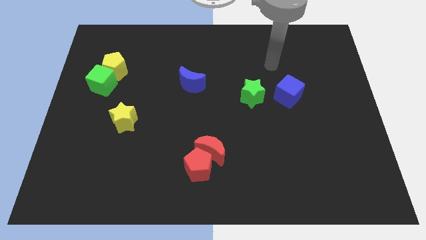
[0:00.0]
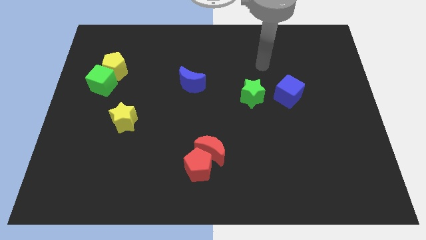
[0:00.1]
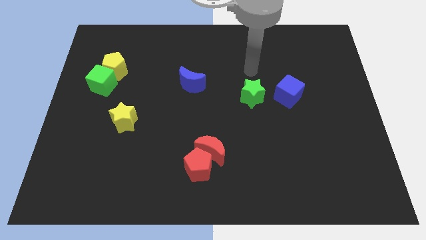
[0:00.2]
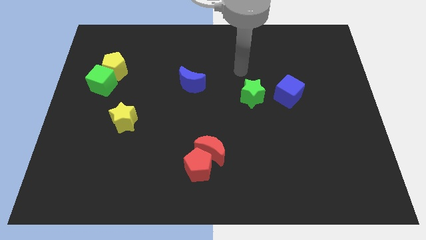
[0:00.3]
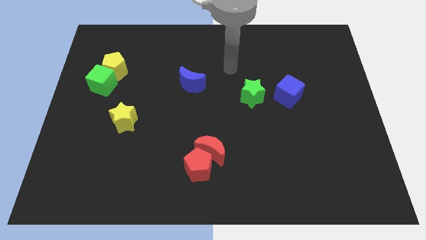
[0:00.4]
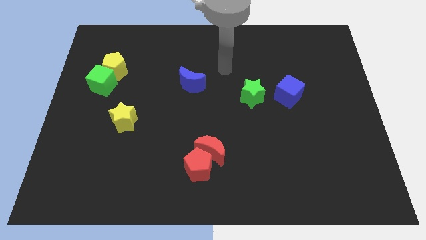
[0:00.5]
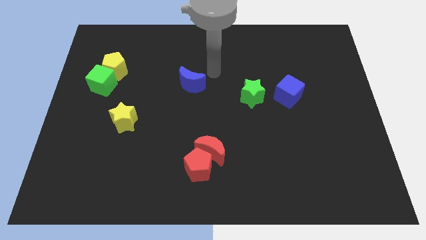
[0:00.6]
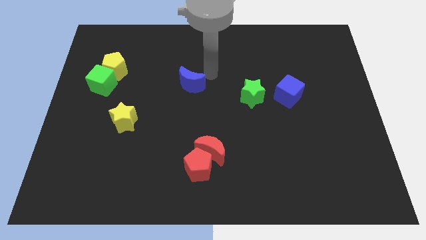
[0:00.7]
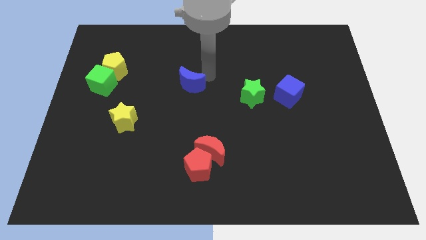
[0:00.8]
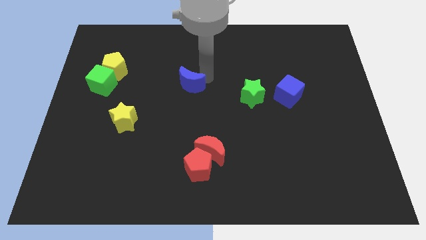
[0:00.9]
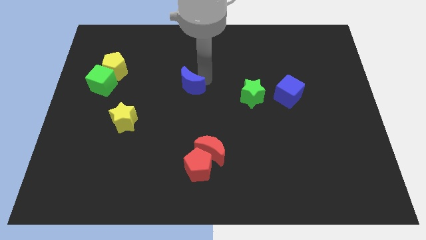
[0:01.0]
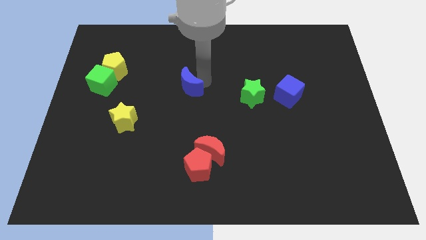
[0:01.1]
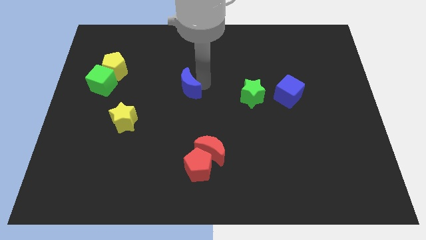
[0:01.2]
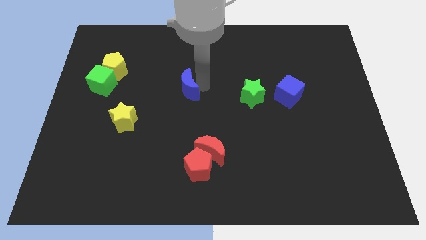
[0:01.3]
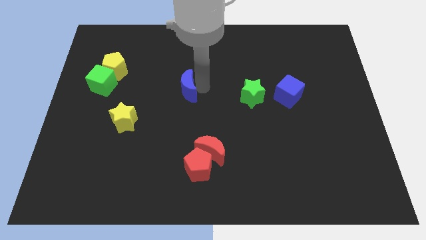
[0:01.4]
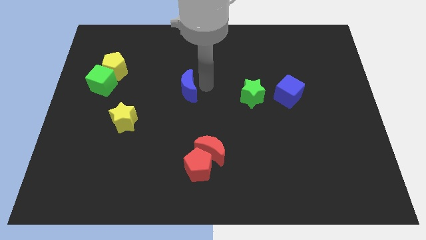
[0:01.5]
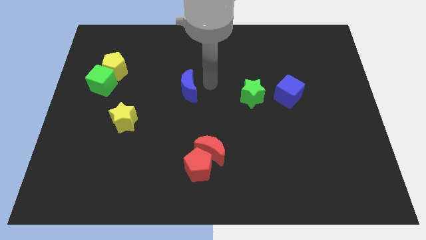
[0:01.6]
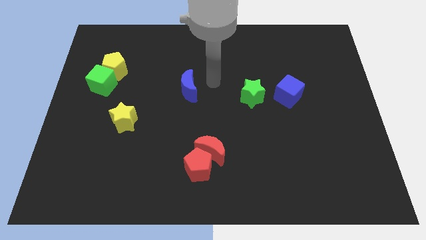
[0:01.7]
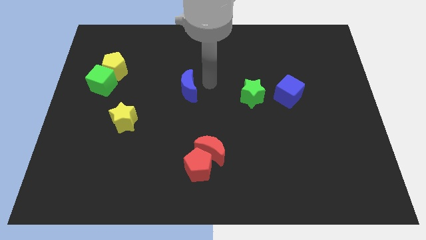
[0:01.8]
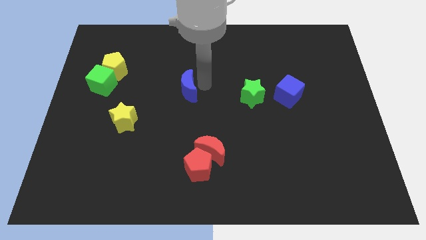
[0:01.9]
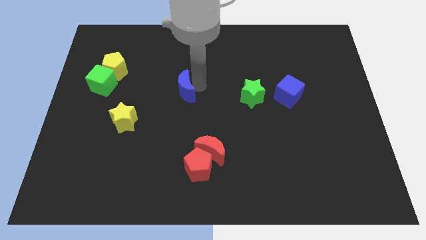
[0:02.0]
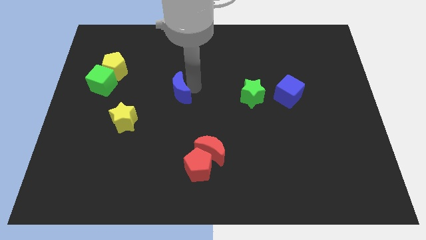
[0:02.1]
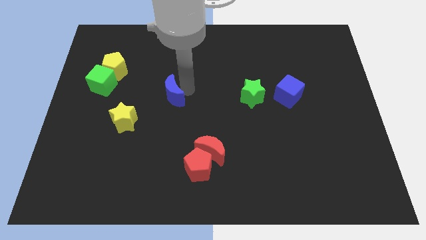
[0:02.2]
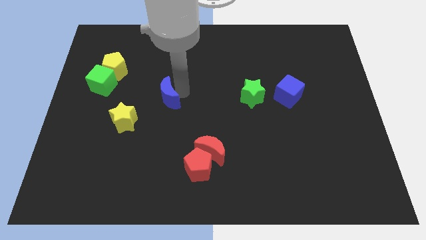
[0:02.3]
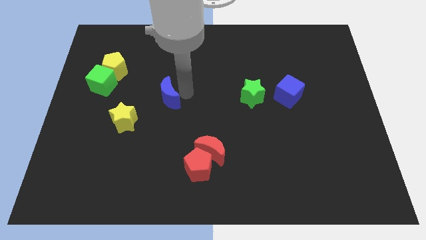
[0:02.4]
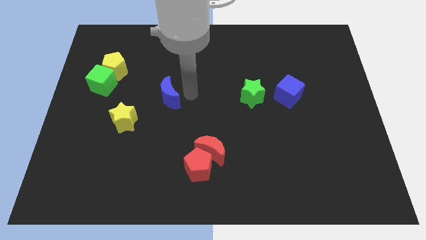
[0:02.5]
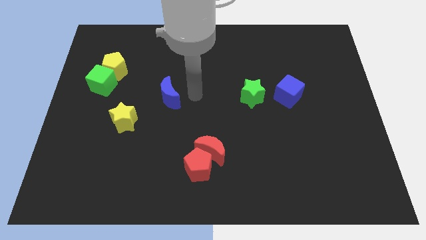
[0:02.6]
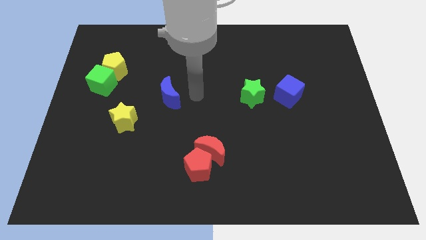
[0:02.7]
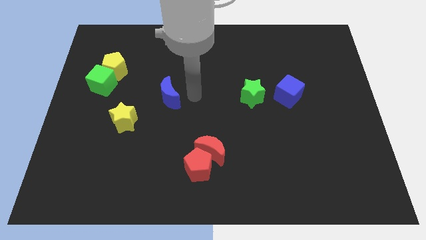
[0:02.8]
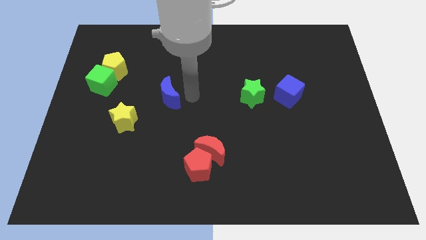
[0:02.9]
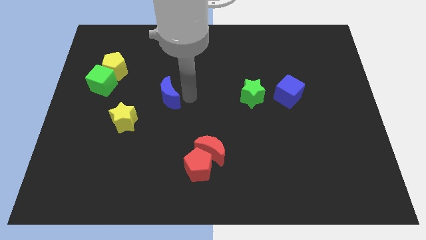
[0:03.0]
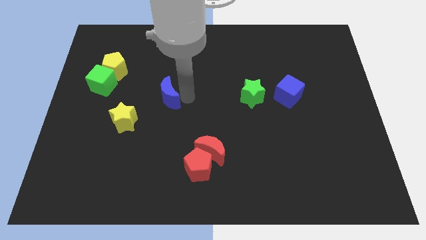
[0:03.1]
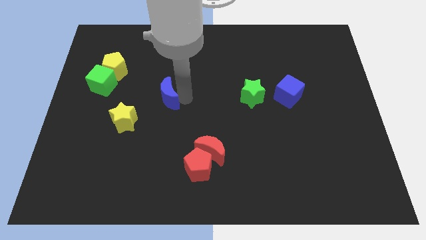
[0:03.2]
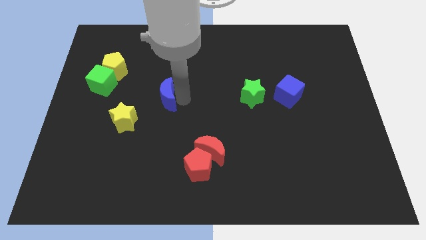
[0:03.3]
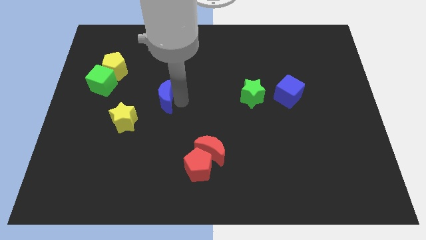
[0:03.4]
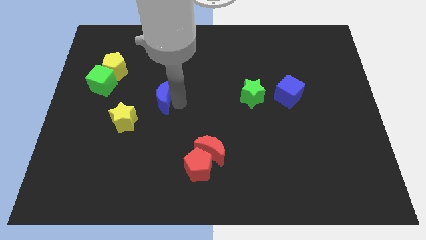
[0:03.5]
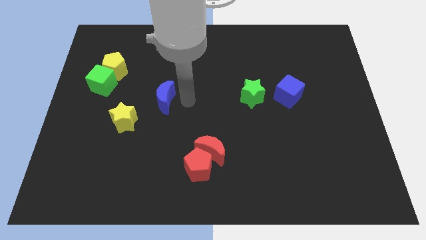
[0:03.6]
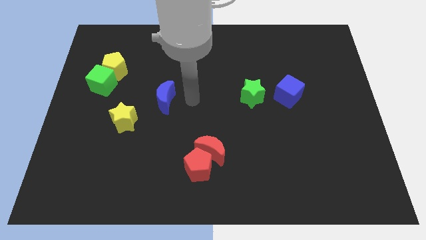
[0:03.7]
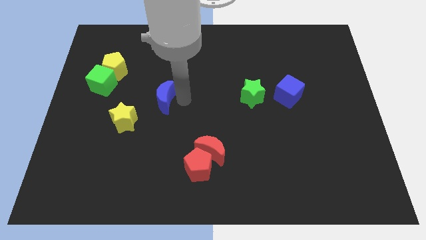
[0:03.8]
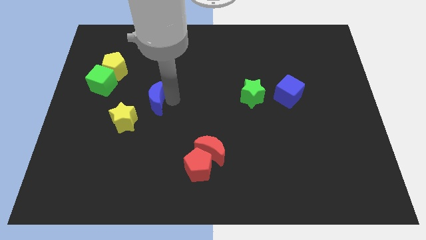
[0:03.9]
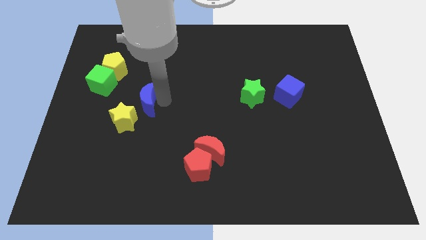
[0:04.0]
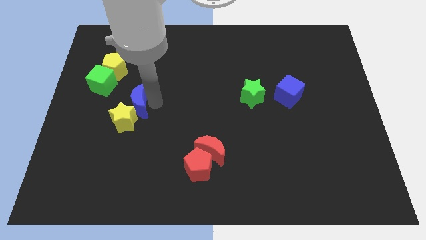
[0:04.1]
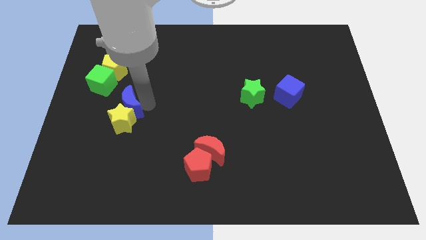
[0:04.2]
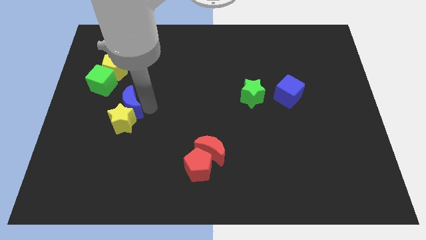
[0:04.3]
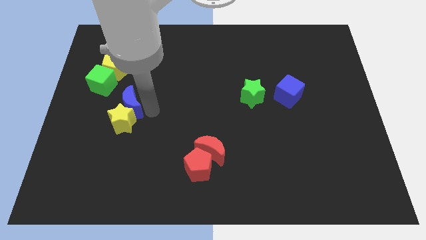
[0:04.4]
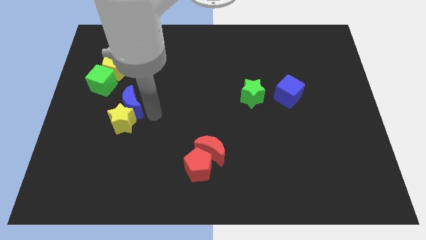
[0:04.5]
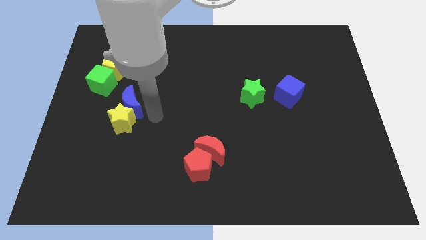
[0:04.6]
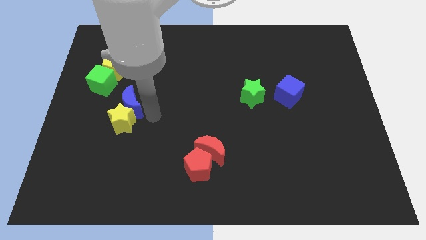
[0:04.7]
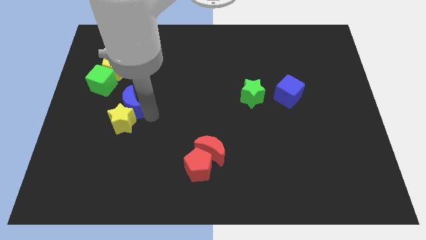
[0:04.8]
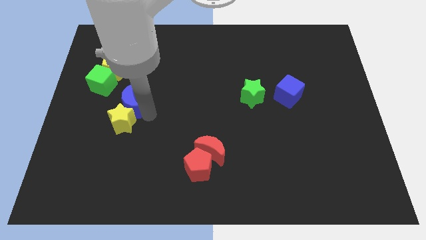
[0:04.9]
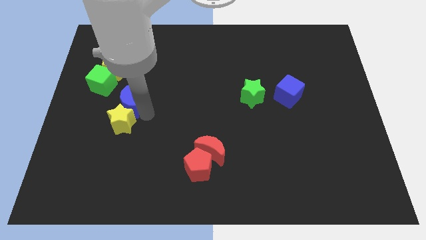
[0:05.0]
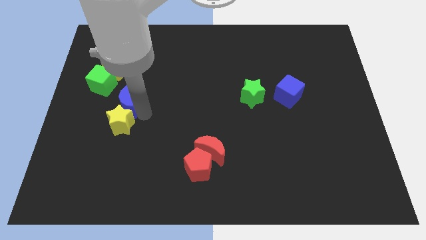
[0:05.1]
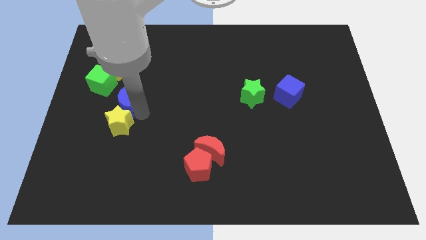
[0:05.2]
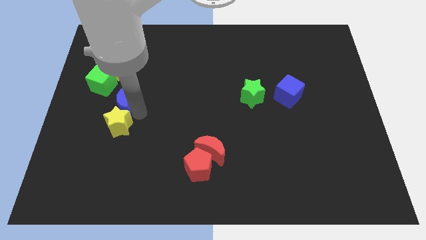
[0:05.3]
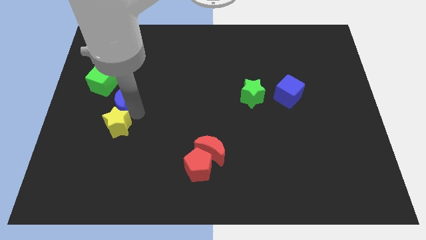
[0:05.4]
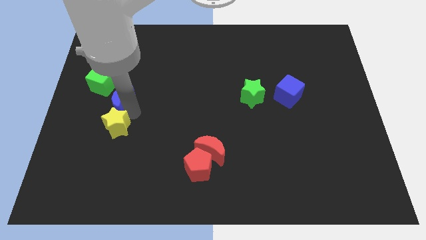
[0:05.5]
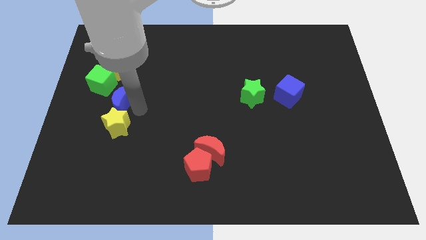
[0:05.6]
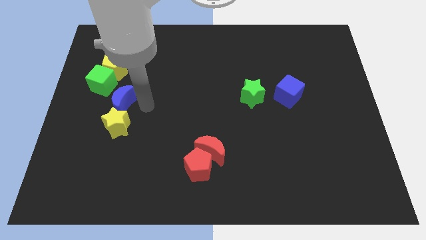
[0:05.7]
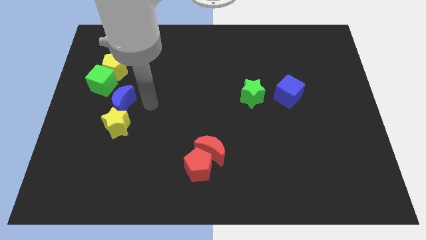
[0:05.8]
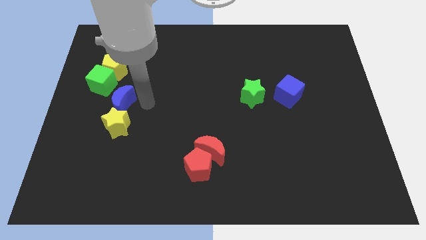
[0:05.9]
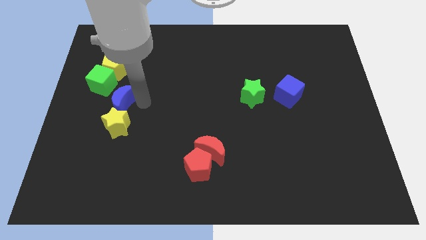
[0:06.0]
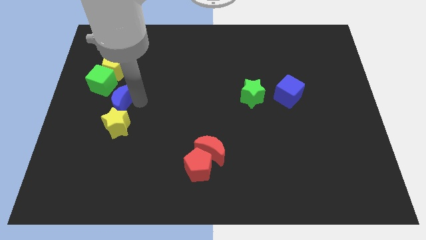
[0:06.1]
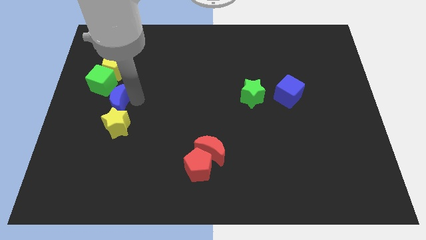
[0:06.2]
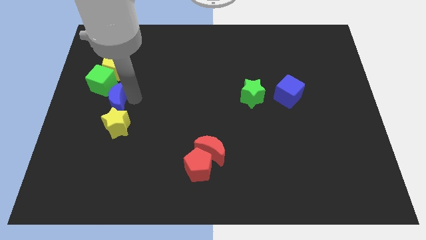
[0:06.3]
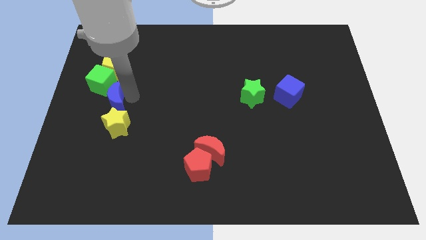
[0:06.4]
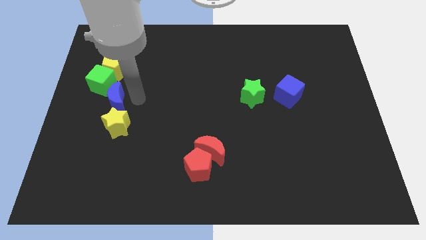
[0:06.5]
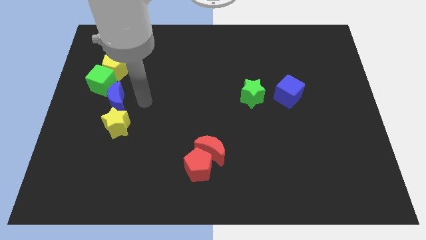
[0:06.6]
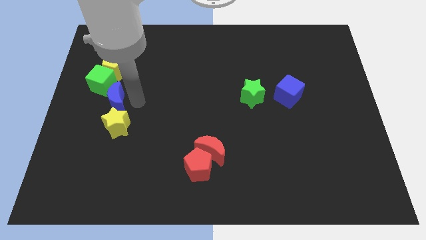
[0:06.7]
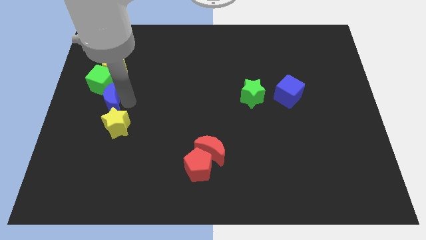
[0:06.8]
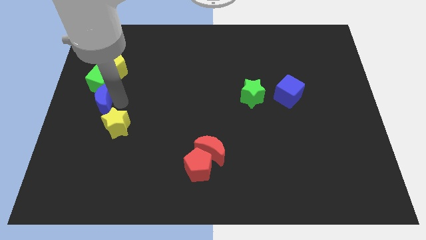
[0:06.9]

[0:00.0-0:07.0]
move the blue moon to the center left
